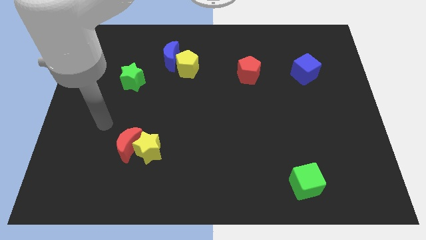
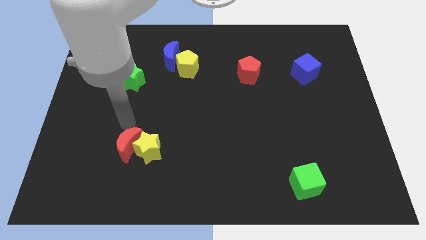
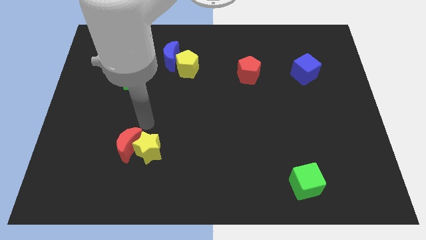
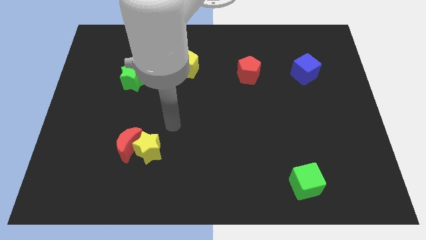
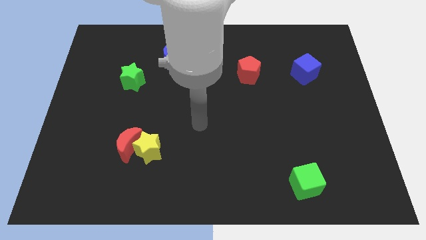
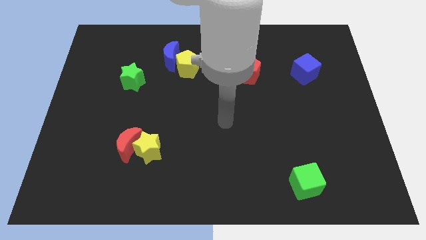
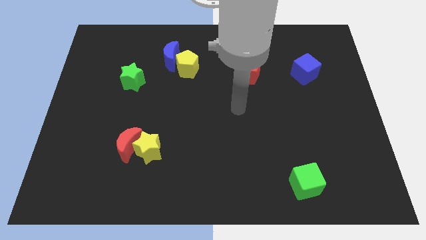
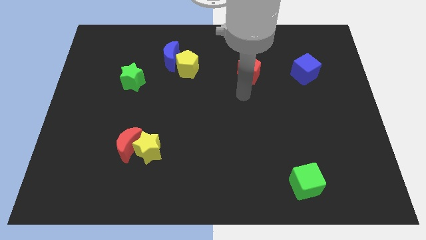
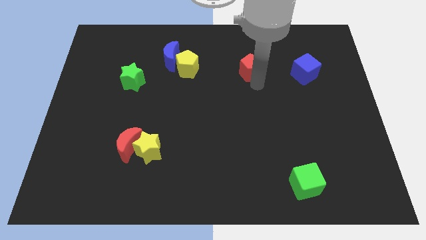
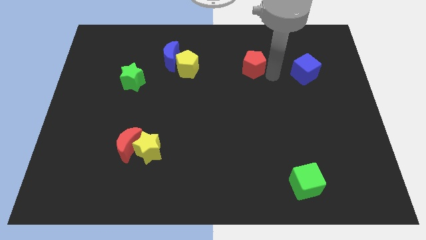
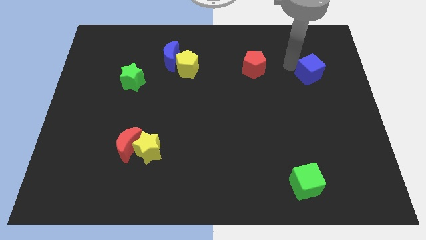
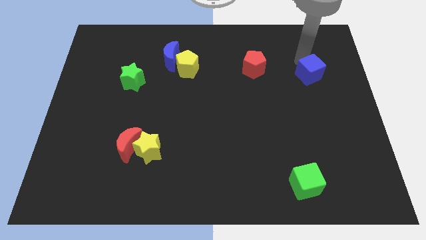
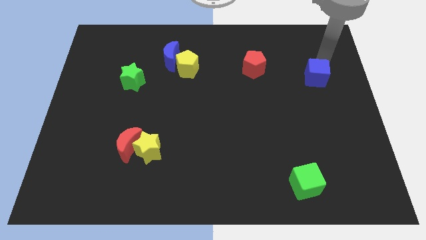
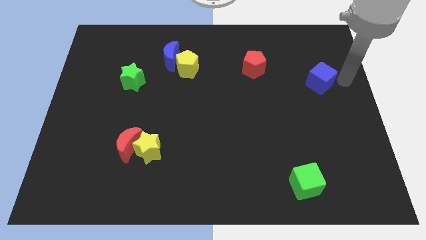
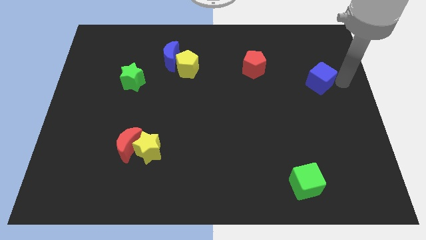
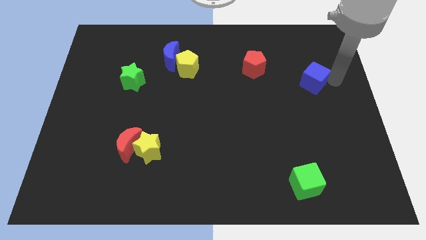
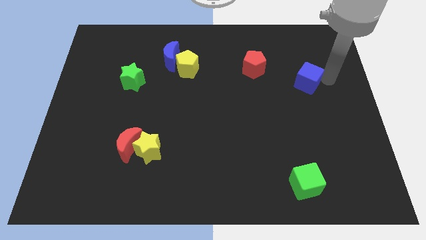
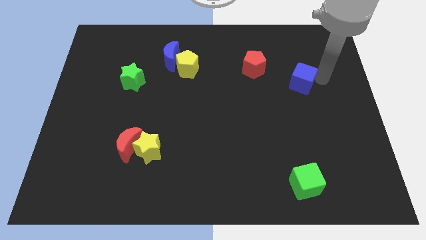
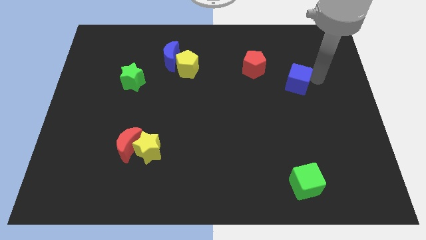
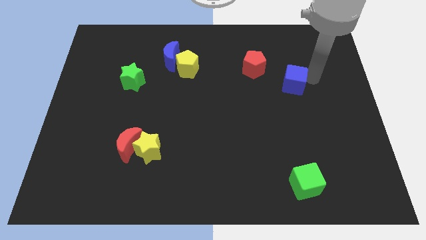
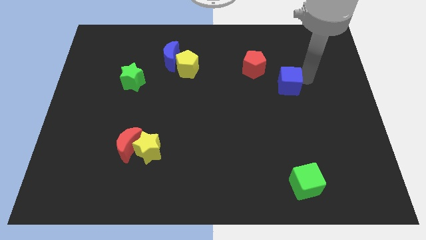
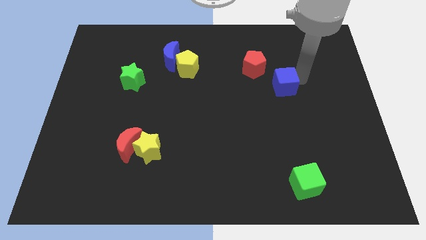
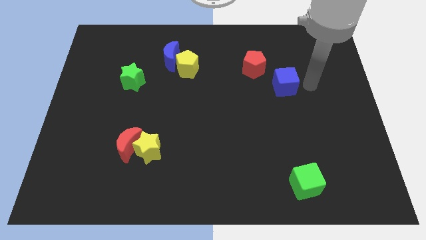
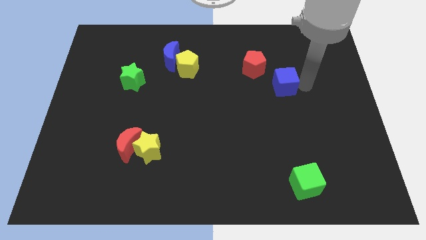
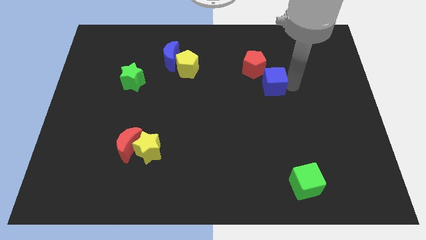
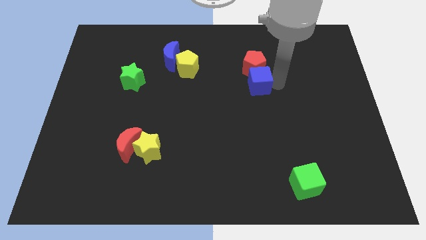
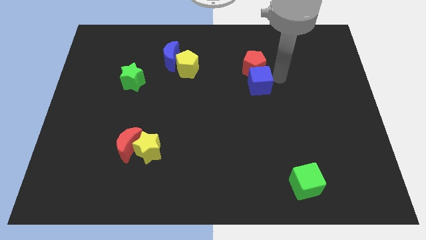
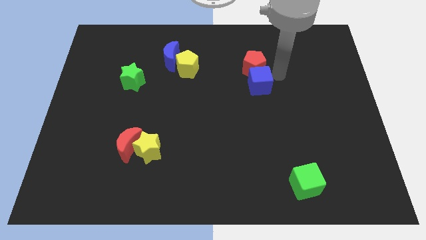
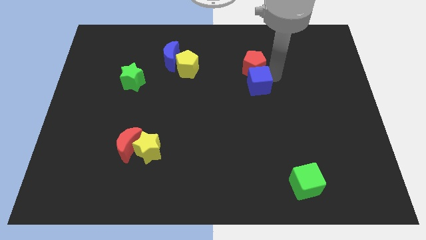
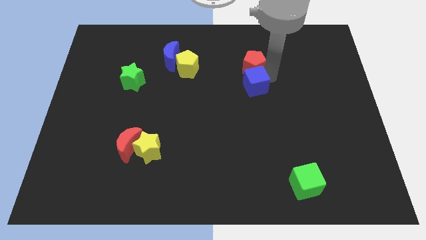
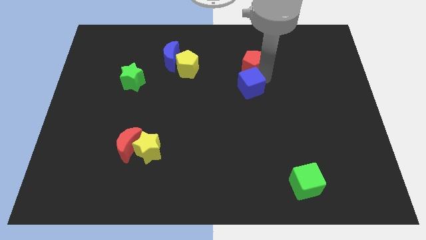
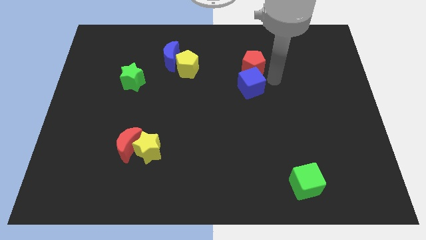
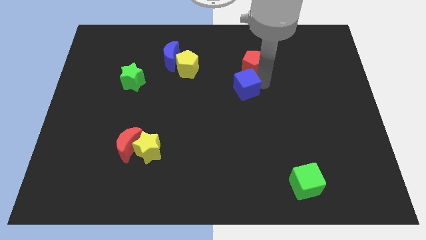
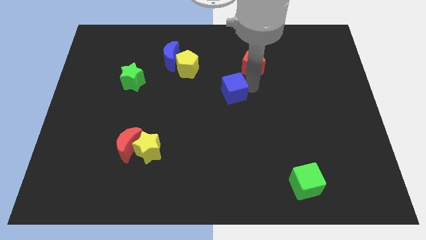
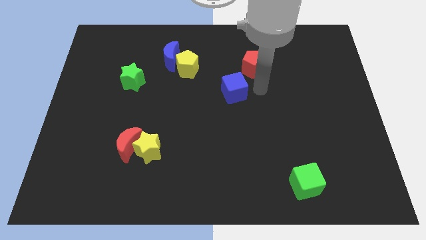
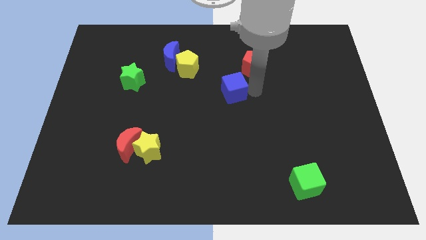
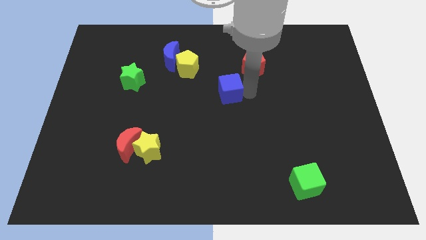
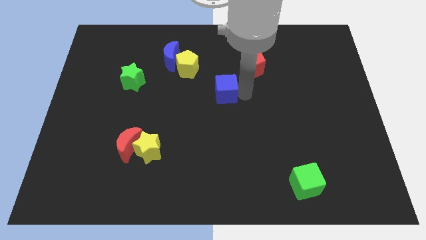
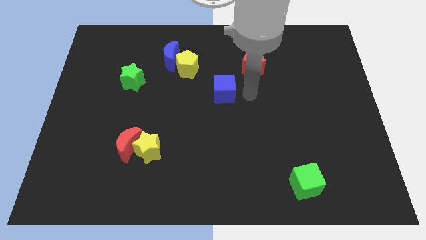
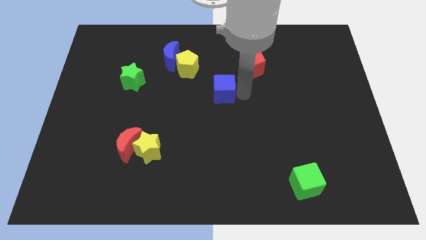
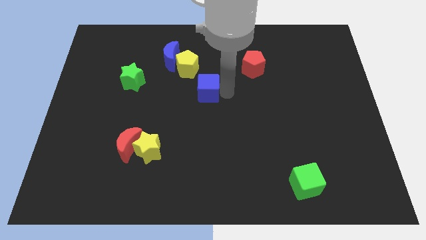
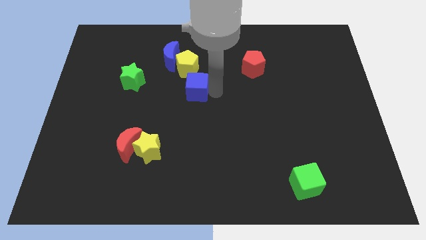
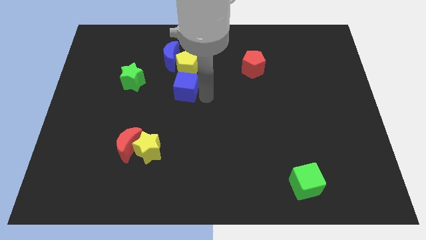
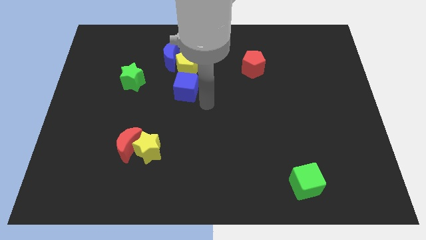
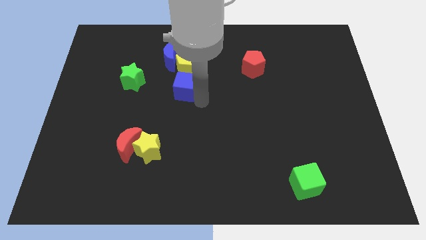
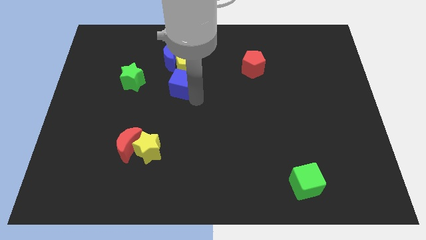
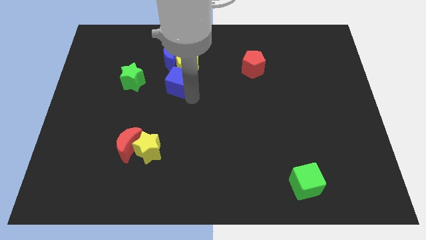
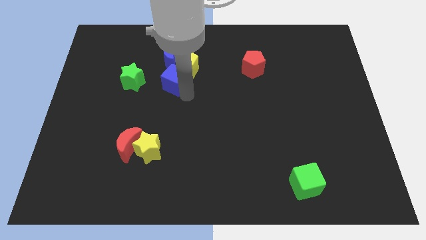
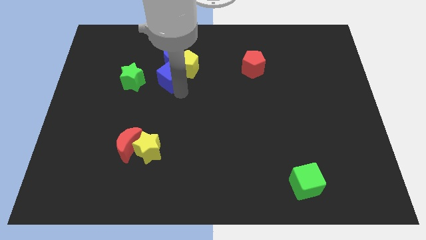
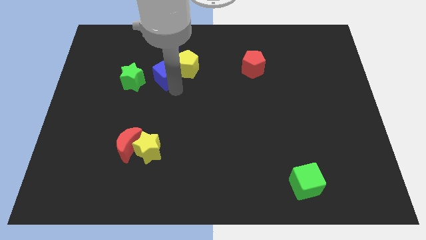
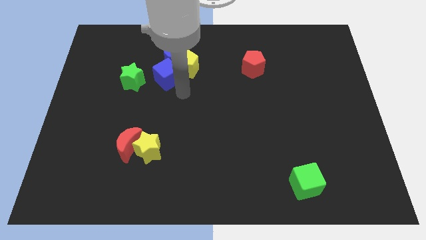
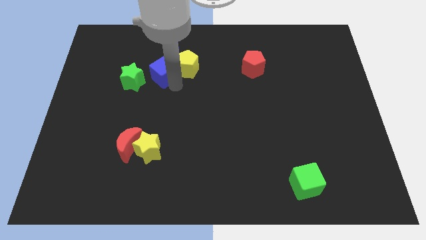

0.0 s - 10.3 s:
move the blue cube to the top right side of the green star

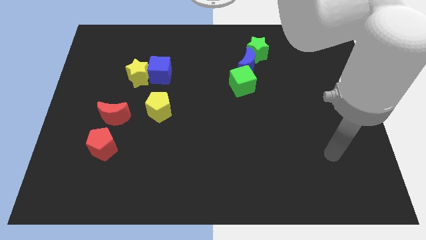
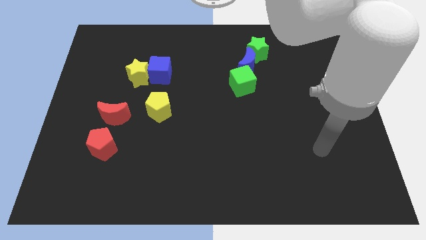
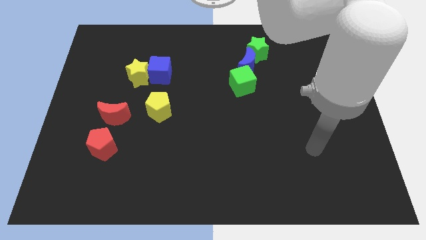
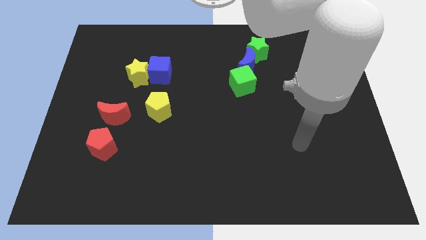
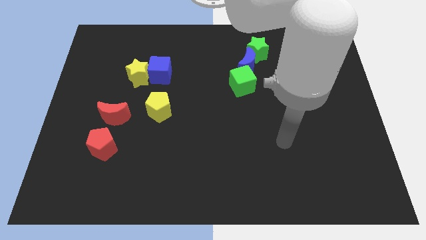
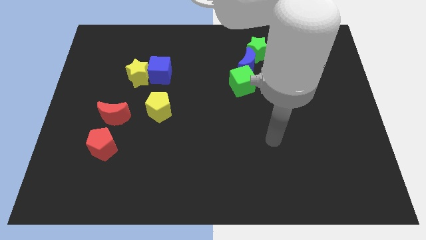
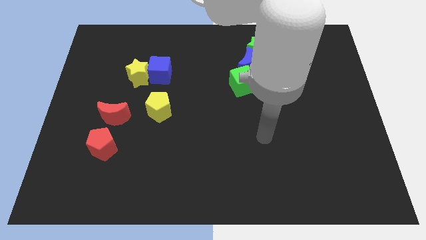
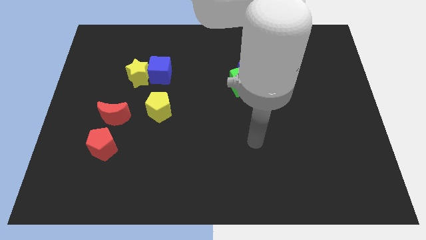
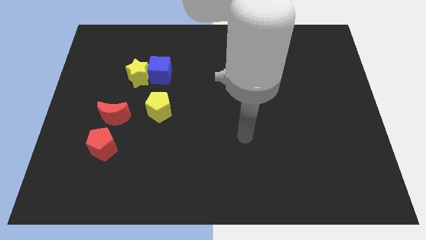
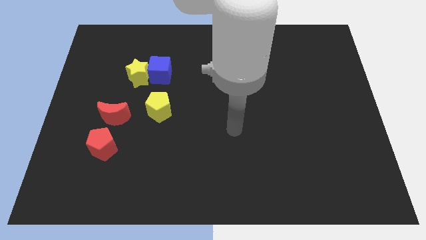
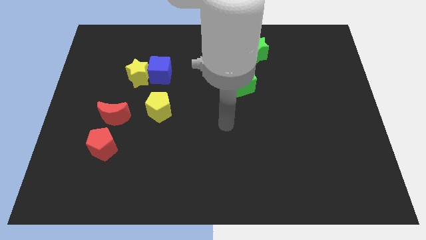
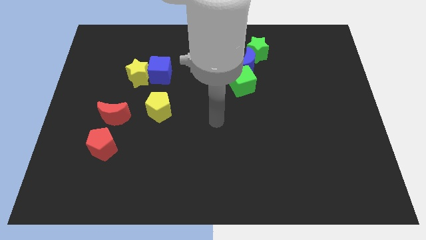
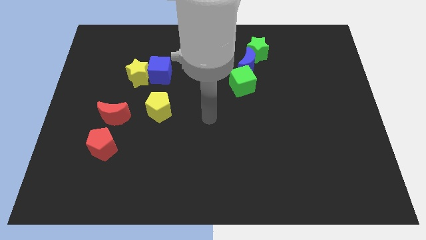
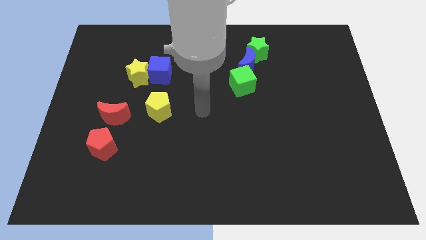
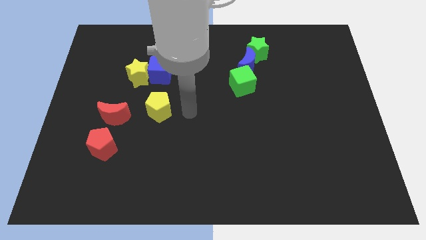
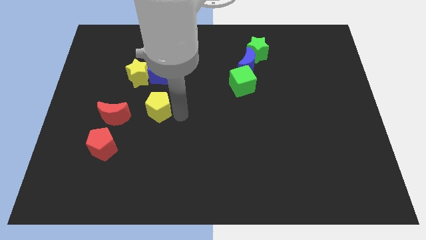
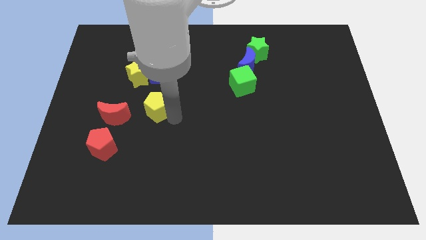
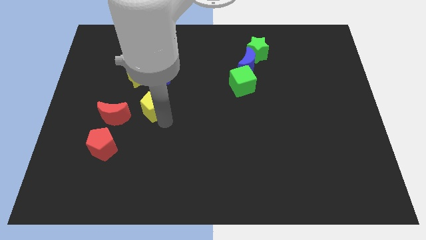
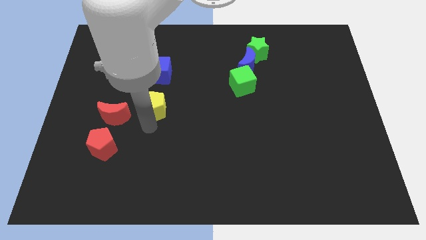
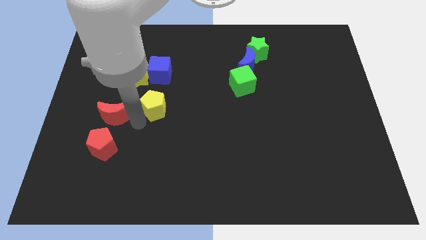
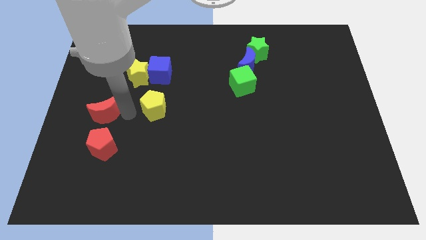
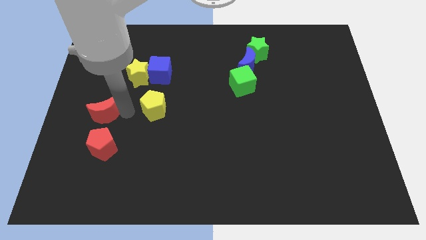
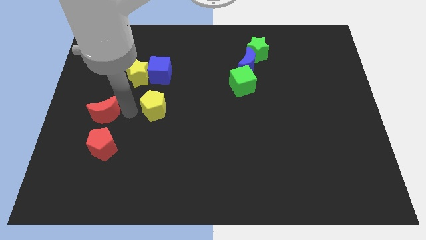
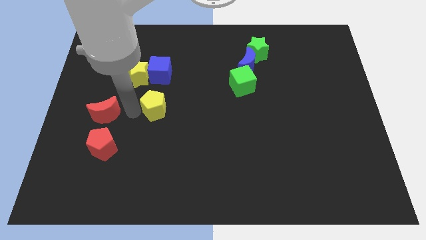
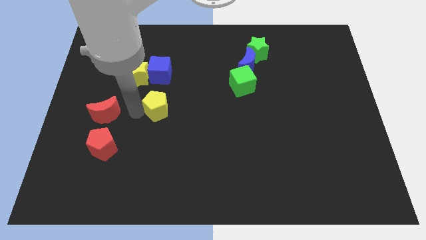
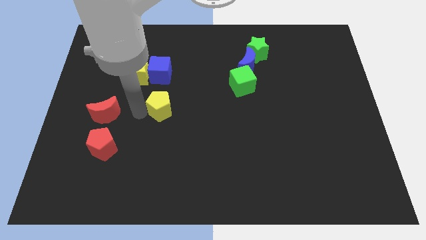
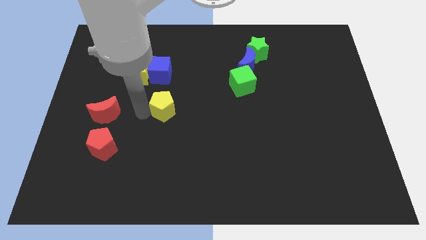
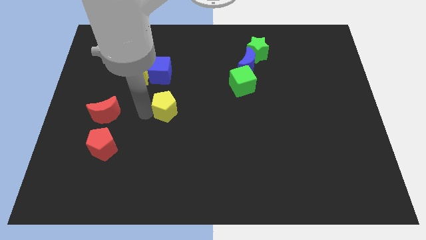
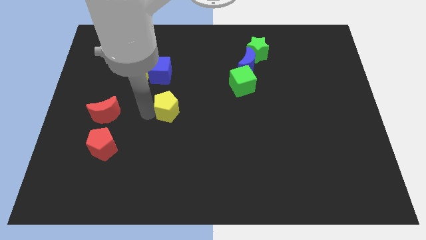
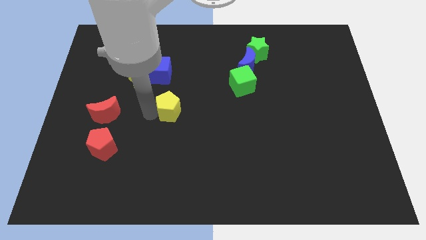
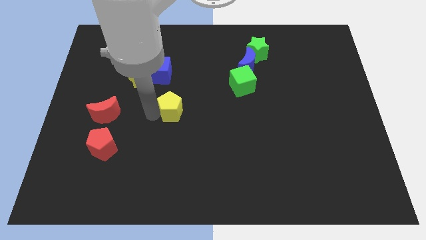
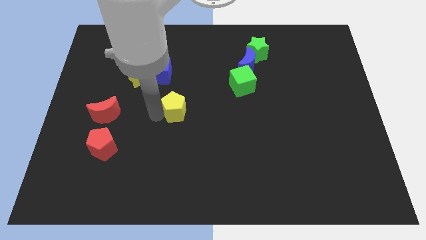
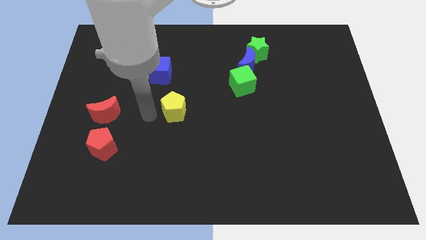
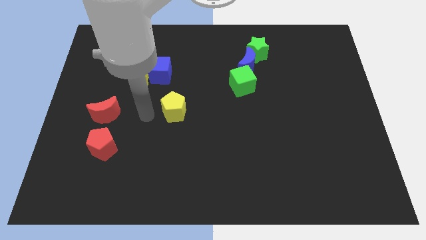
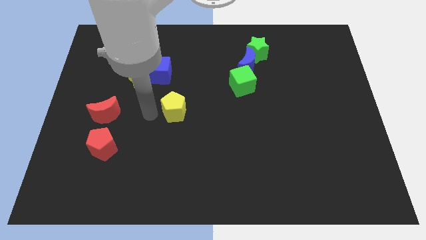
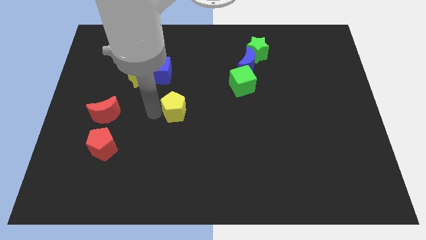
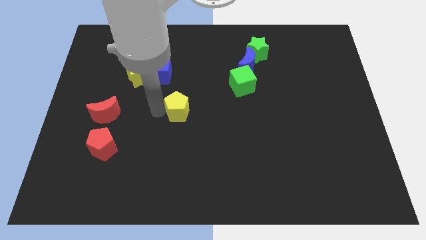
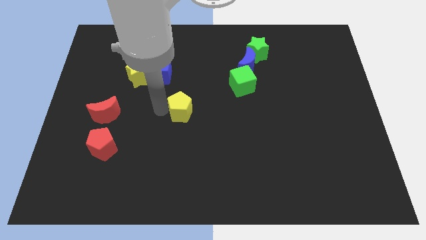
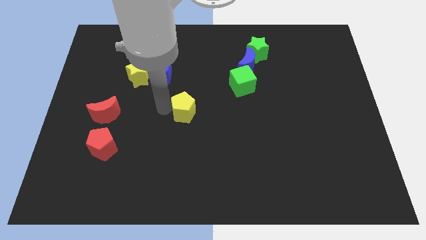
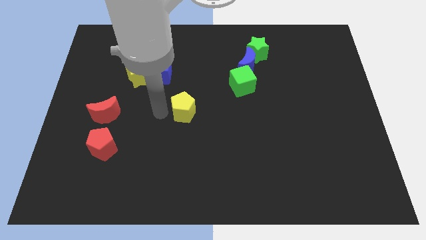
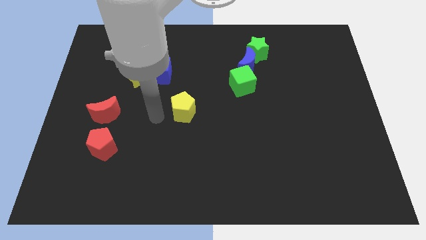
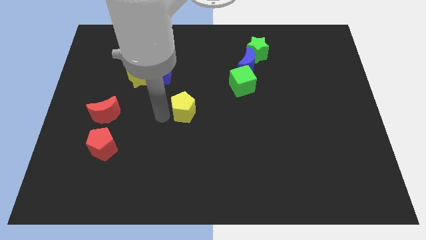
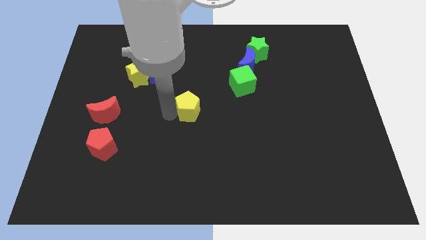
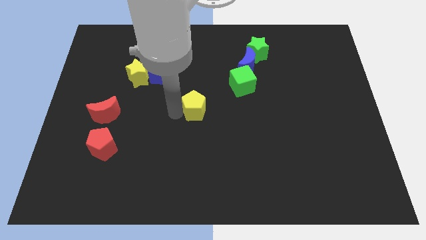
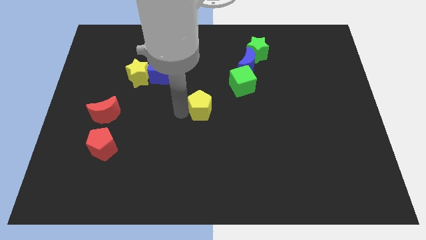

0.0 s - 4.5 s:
push the yellow pentagon to the bottom left of the green cube
